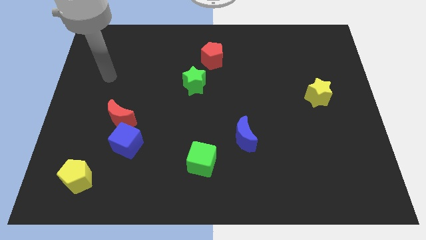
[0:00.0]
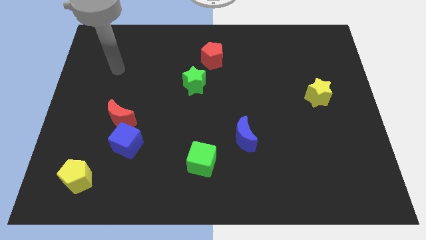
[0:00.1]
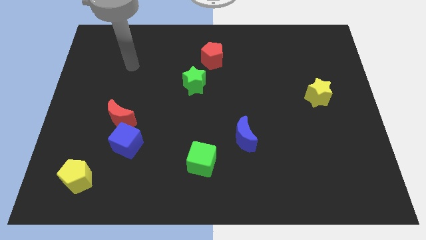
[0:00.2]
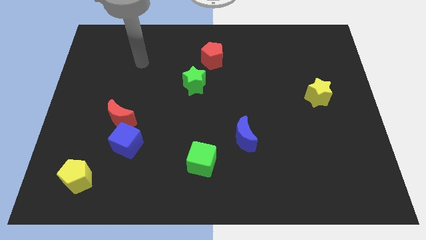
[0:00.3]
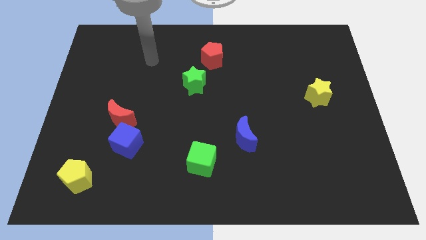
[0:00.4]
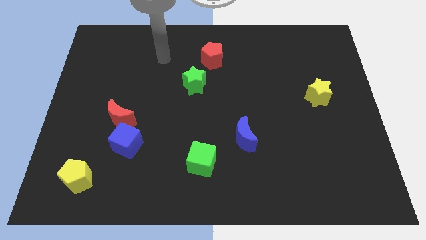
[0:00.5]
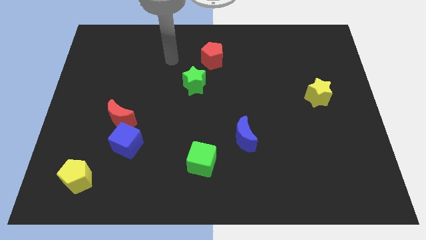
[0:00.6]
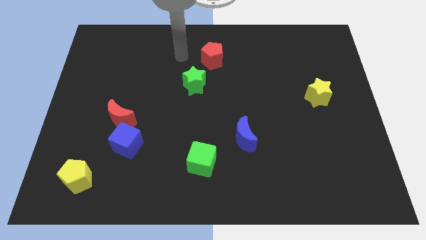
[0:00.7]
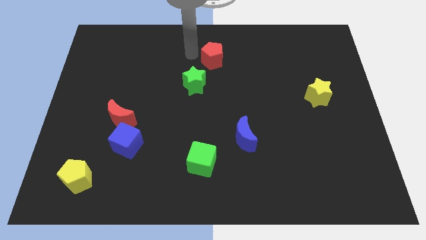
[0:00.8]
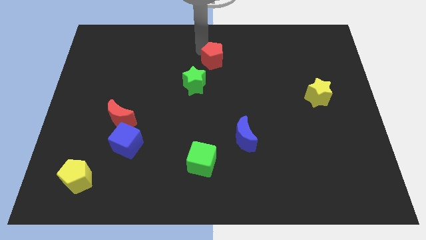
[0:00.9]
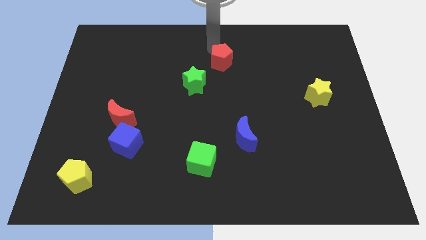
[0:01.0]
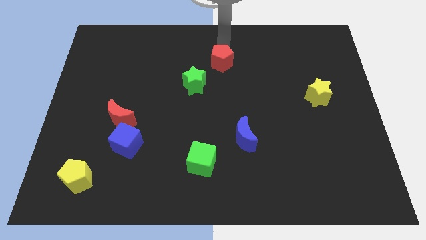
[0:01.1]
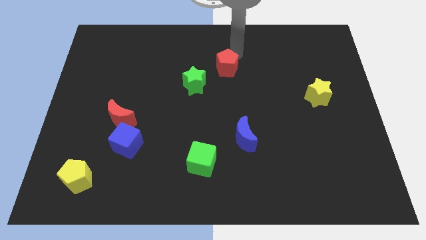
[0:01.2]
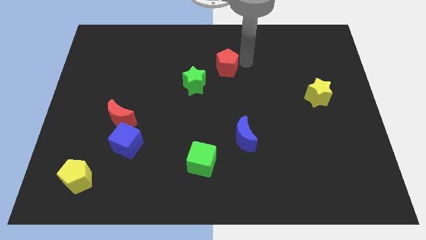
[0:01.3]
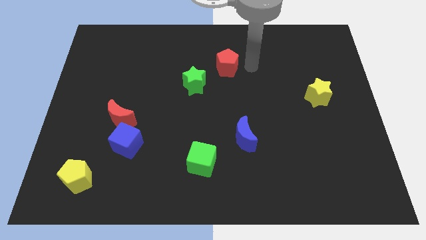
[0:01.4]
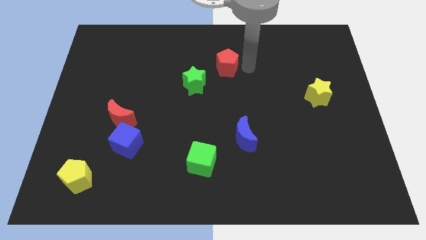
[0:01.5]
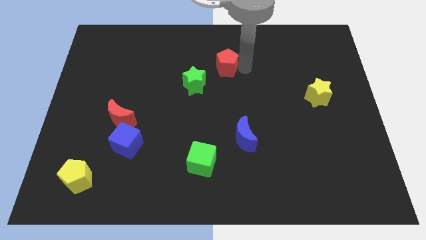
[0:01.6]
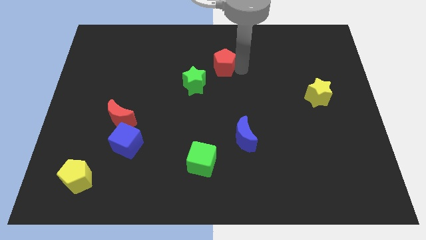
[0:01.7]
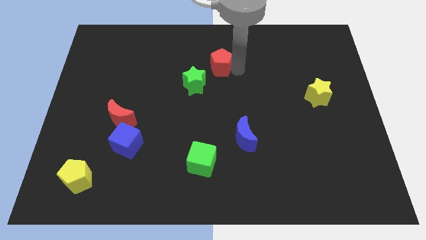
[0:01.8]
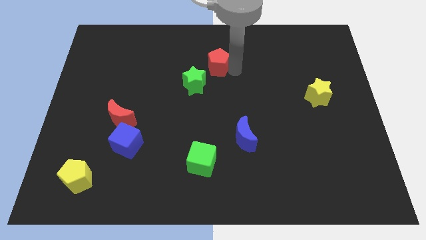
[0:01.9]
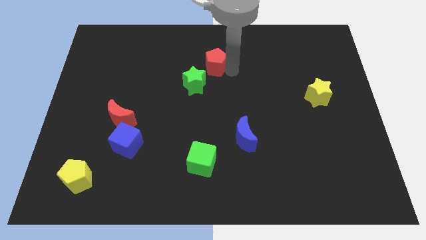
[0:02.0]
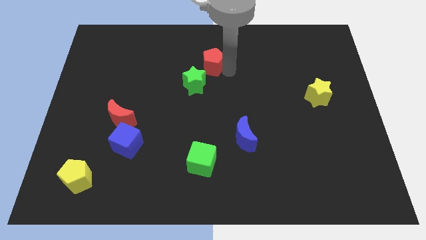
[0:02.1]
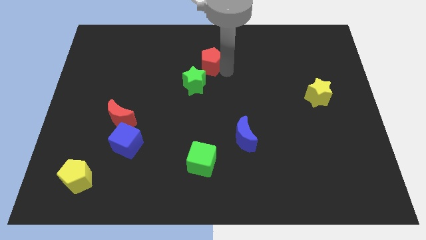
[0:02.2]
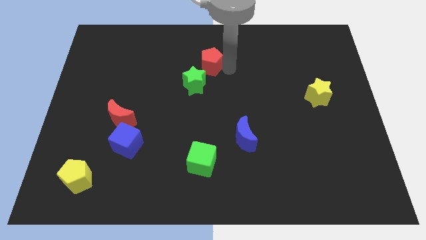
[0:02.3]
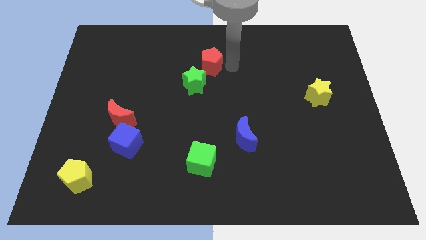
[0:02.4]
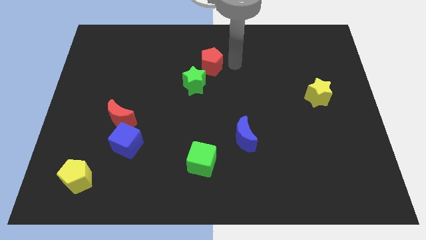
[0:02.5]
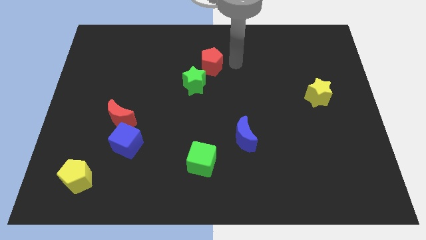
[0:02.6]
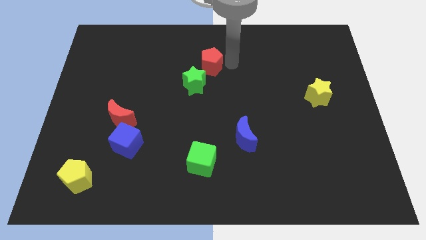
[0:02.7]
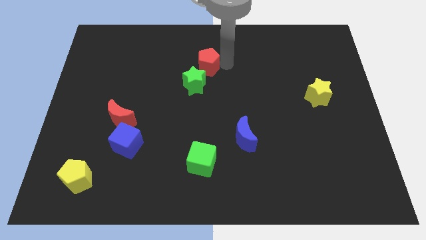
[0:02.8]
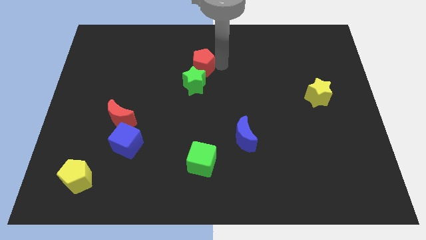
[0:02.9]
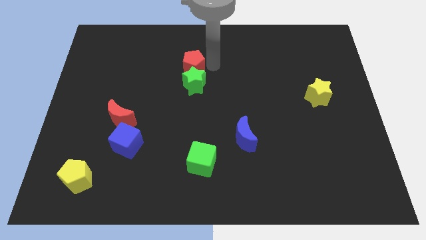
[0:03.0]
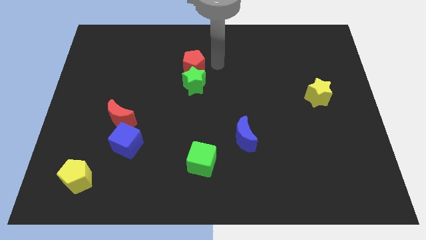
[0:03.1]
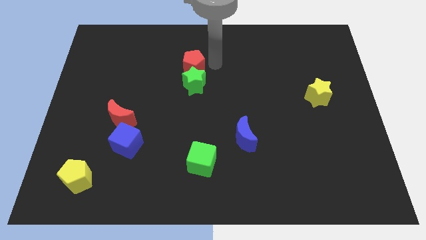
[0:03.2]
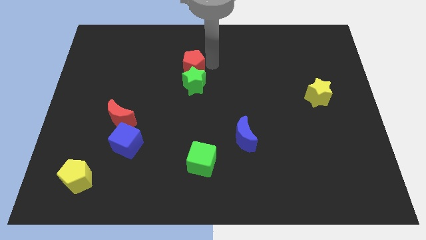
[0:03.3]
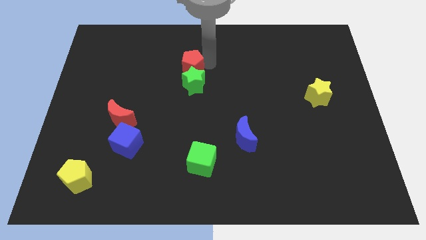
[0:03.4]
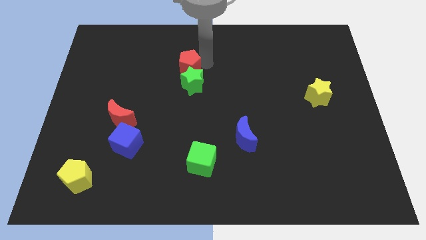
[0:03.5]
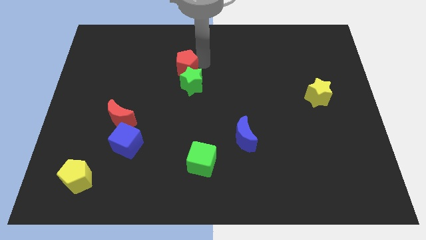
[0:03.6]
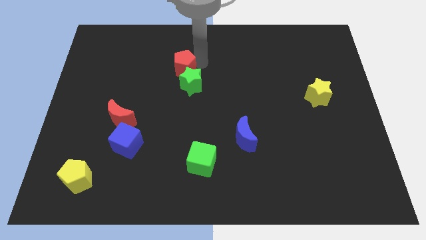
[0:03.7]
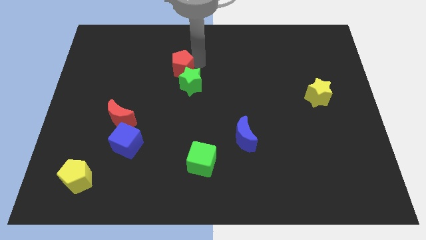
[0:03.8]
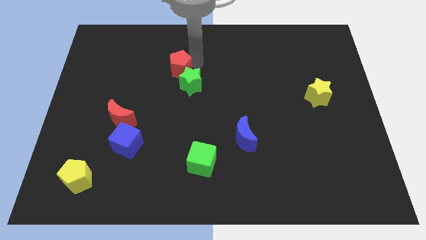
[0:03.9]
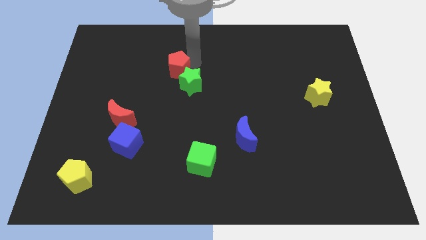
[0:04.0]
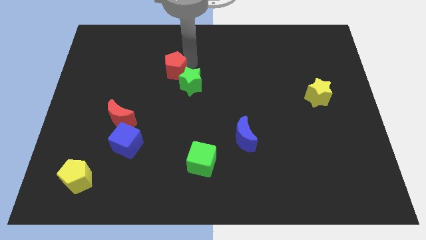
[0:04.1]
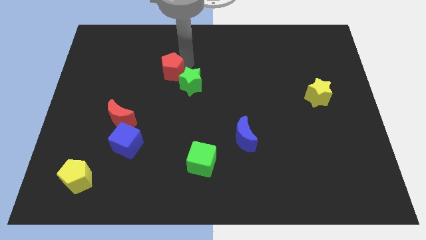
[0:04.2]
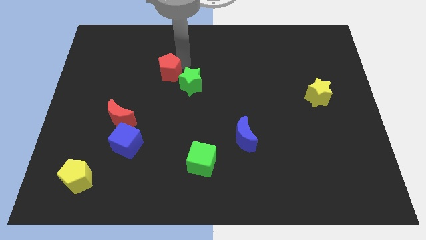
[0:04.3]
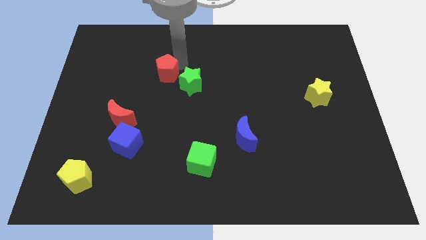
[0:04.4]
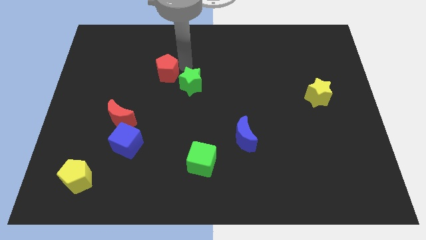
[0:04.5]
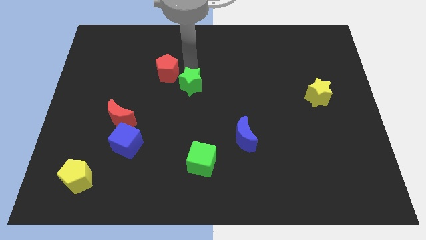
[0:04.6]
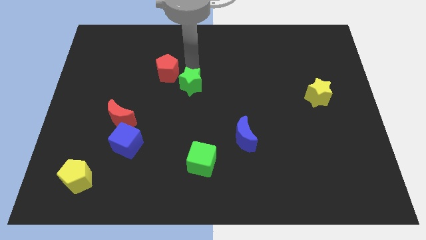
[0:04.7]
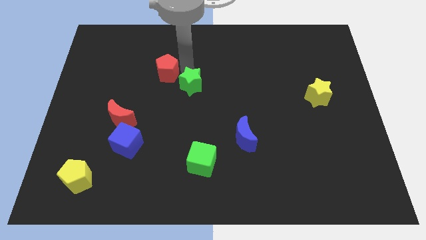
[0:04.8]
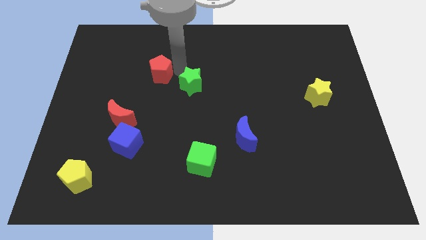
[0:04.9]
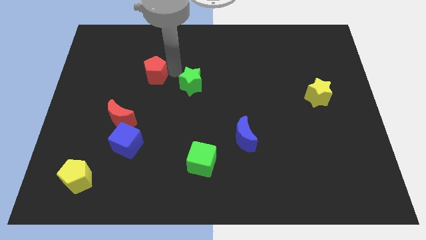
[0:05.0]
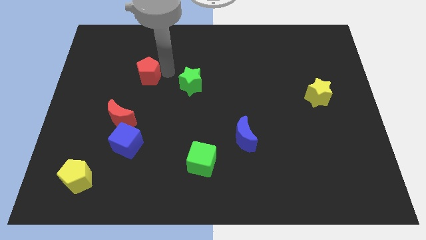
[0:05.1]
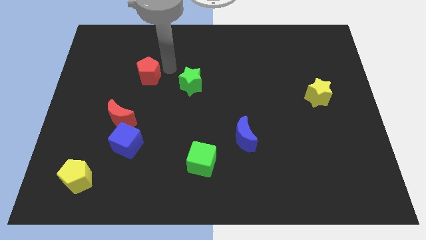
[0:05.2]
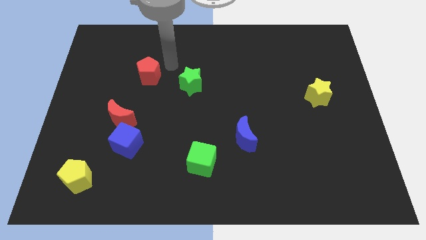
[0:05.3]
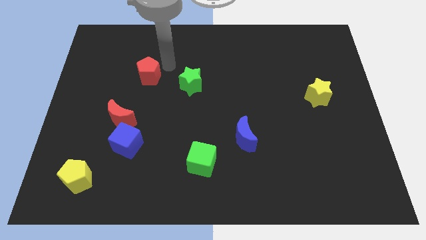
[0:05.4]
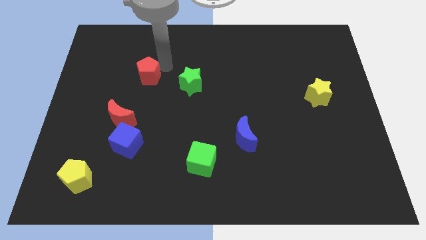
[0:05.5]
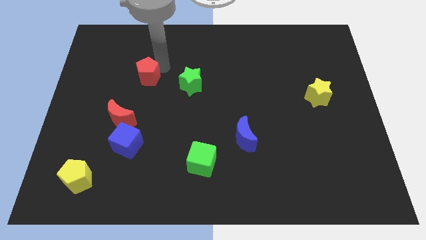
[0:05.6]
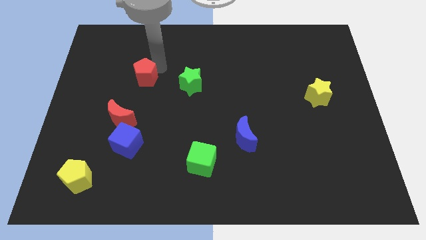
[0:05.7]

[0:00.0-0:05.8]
push the red pentagon above the red moon

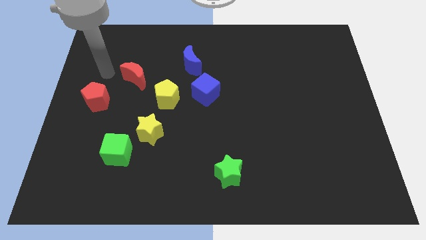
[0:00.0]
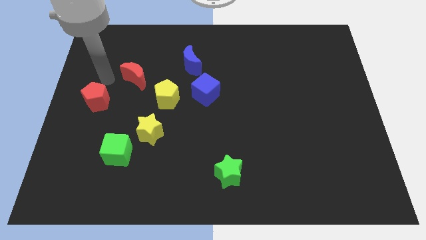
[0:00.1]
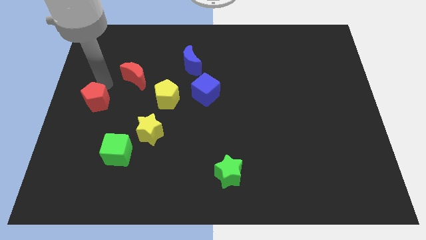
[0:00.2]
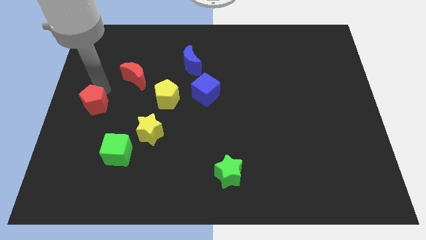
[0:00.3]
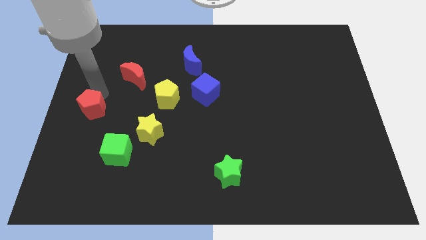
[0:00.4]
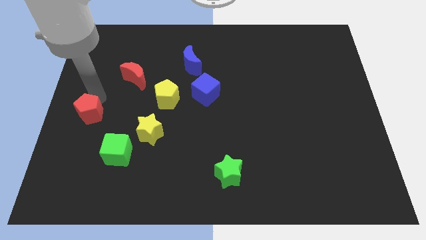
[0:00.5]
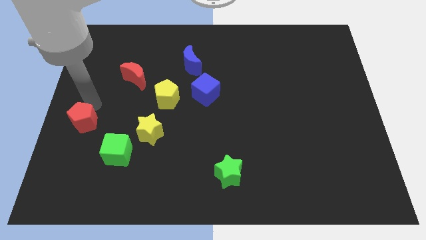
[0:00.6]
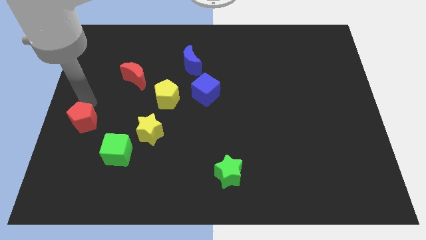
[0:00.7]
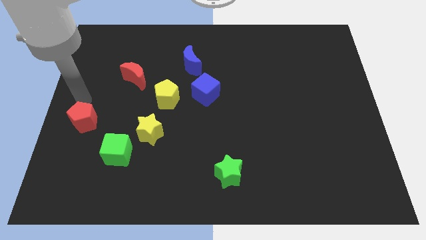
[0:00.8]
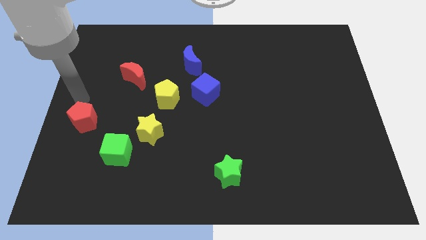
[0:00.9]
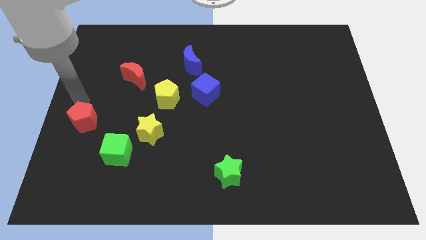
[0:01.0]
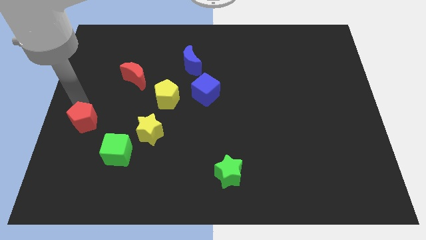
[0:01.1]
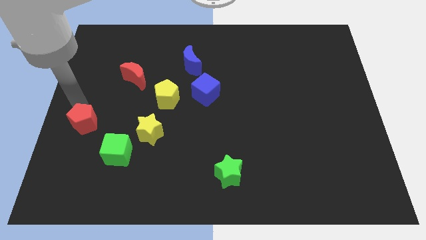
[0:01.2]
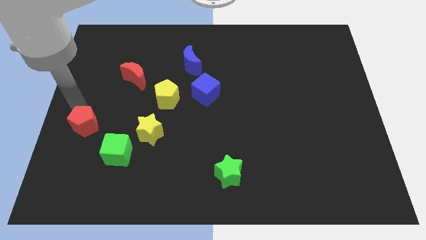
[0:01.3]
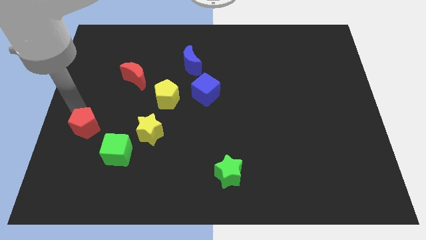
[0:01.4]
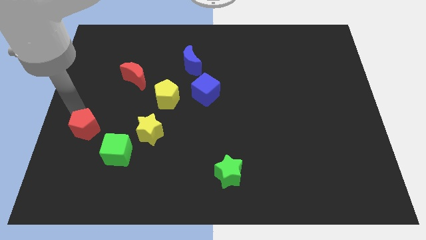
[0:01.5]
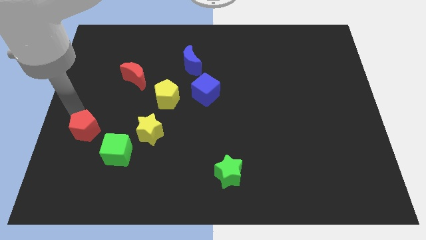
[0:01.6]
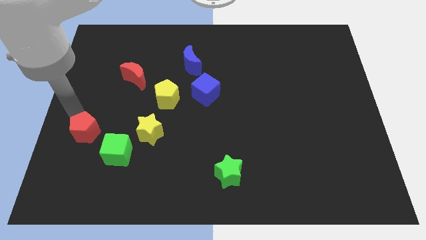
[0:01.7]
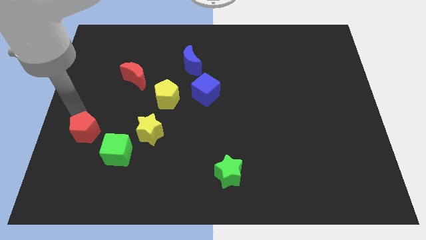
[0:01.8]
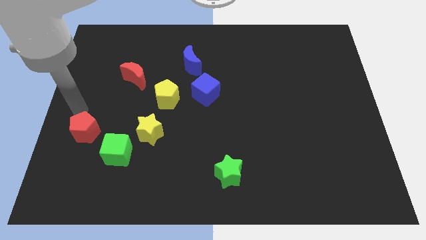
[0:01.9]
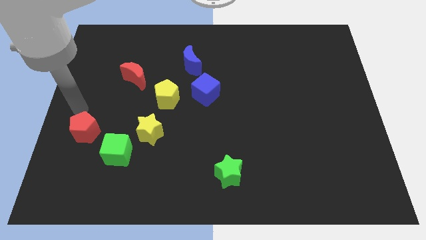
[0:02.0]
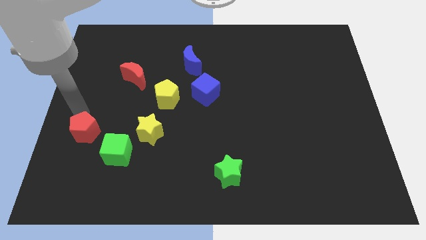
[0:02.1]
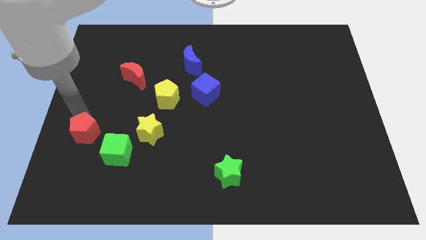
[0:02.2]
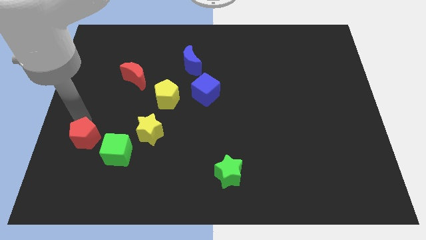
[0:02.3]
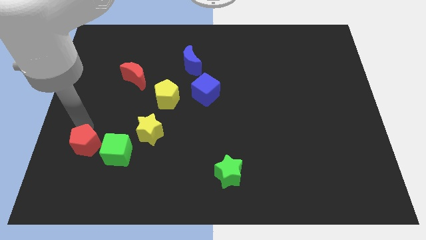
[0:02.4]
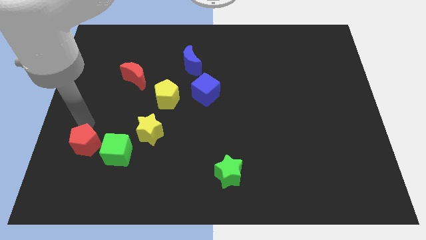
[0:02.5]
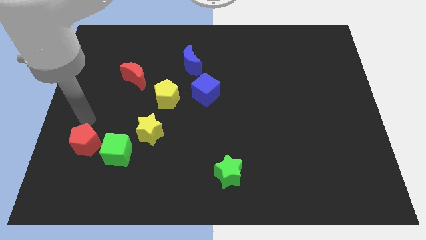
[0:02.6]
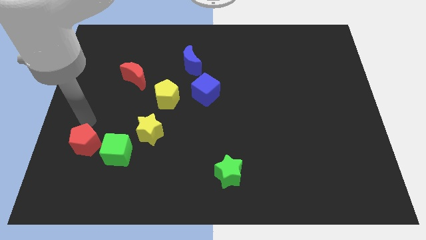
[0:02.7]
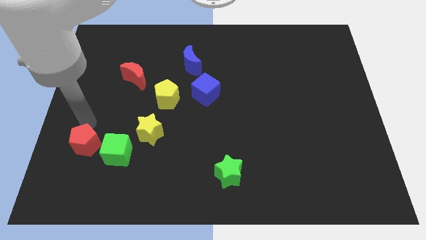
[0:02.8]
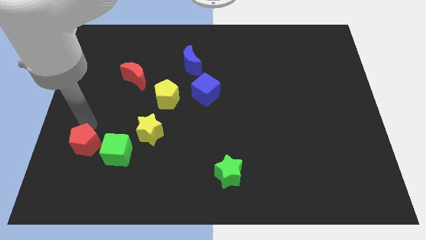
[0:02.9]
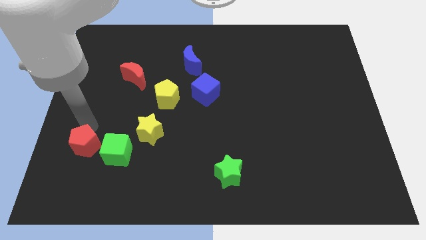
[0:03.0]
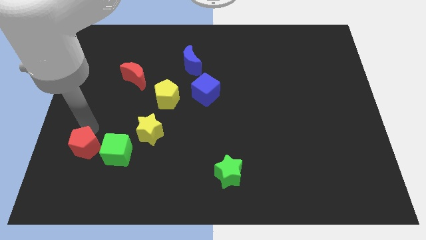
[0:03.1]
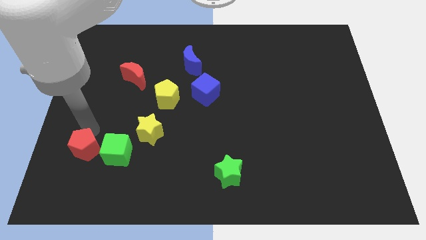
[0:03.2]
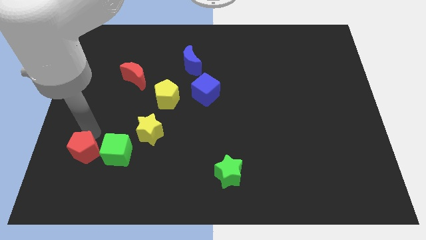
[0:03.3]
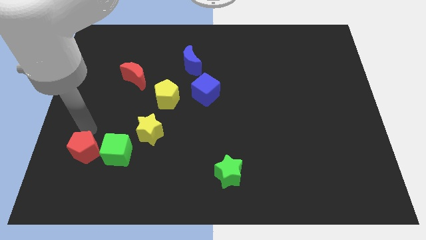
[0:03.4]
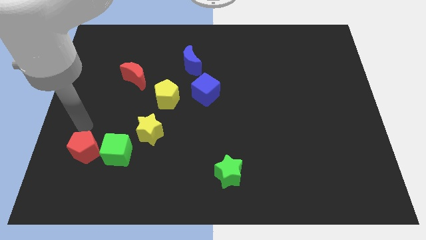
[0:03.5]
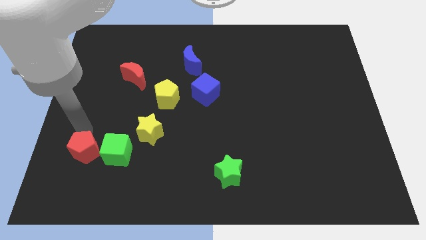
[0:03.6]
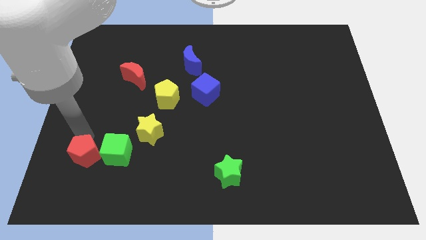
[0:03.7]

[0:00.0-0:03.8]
push the red pentagon to the bottom left side of the green cube
